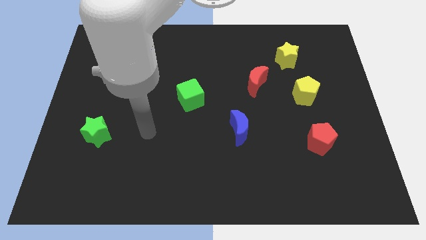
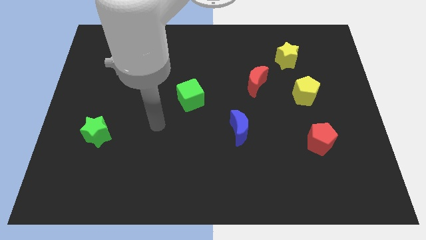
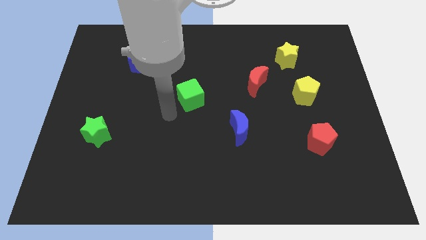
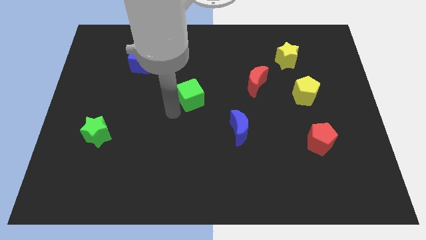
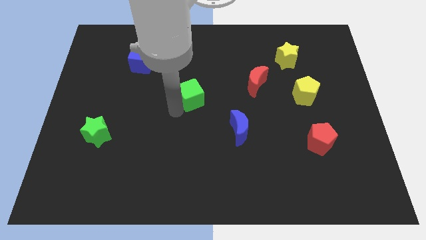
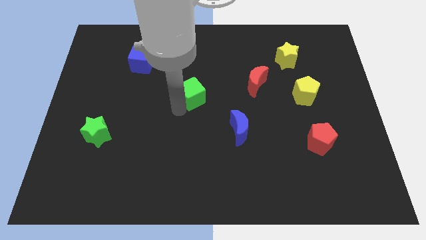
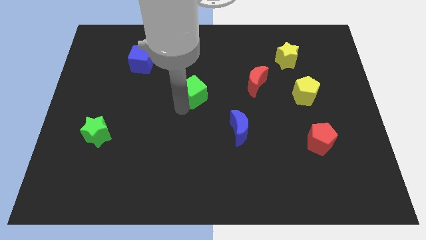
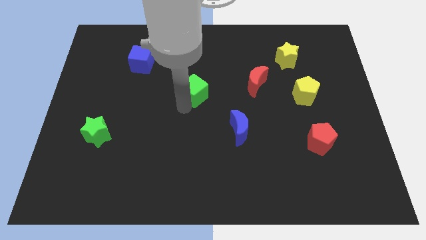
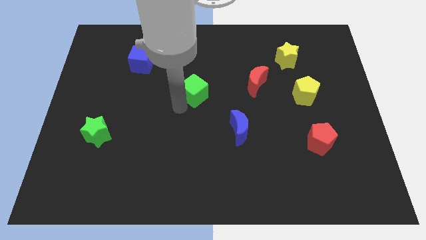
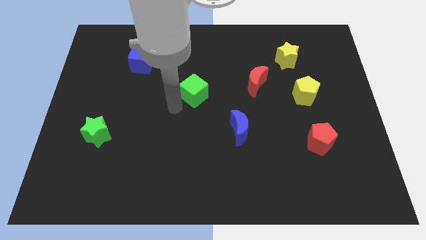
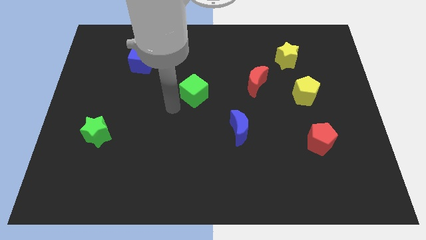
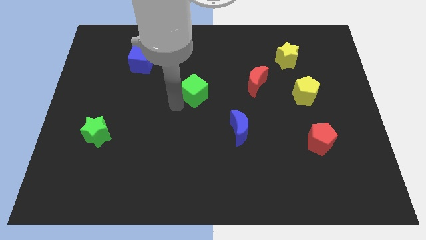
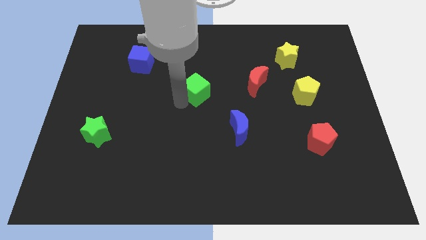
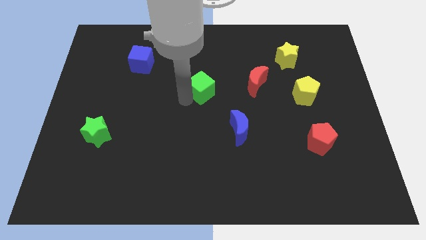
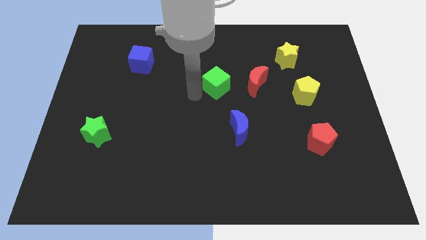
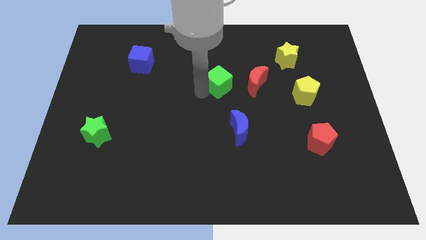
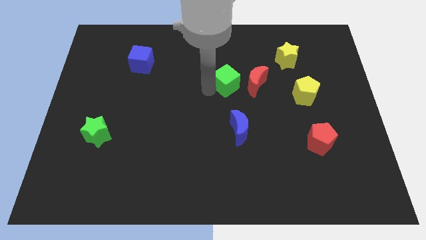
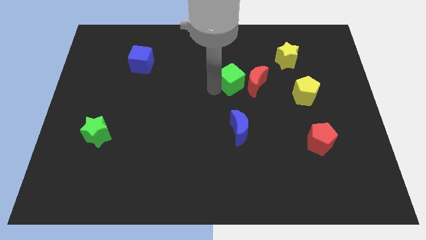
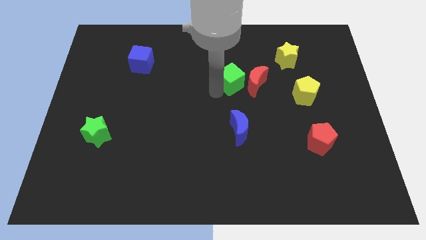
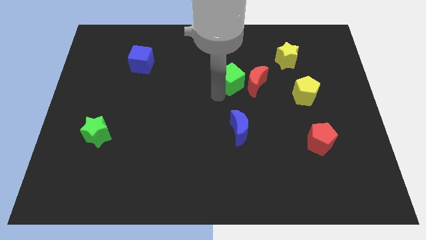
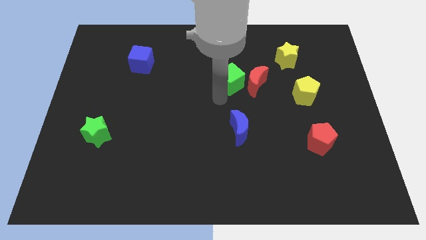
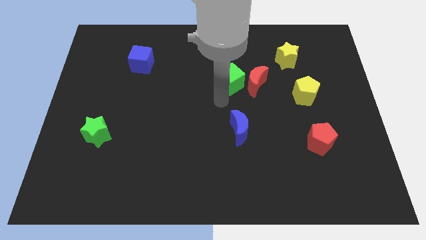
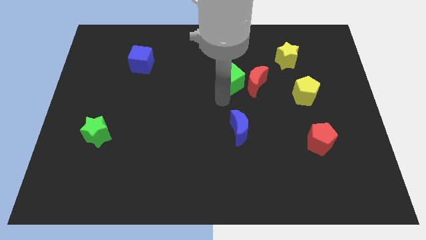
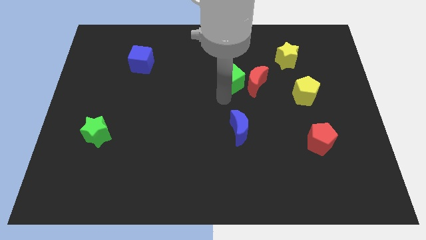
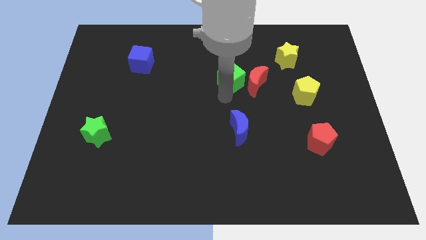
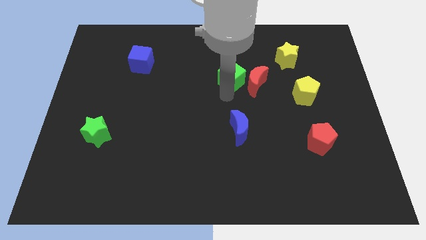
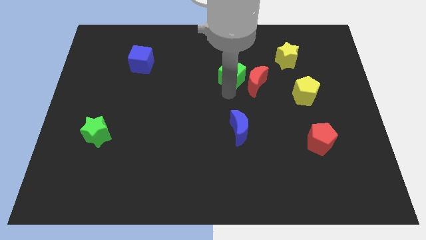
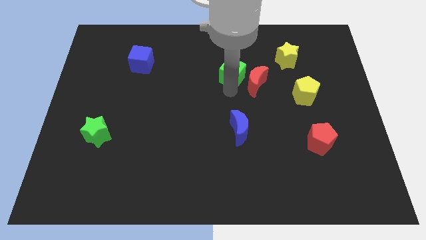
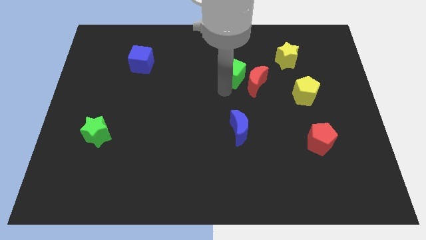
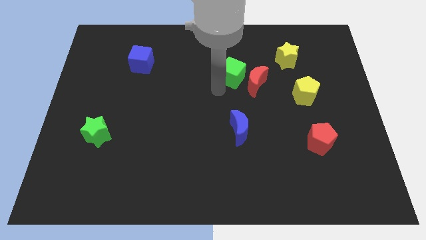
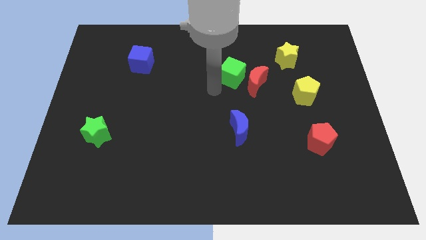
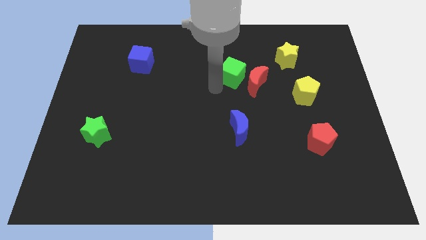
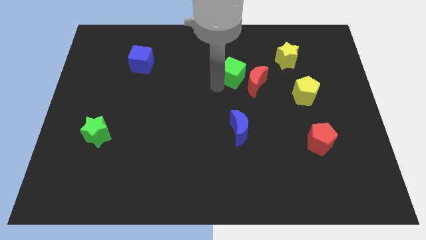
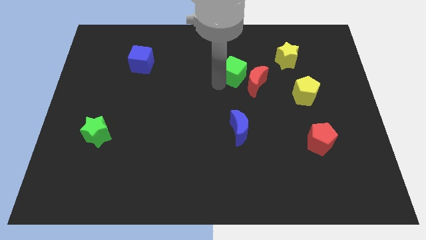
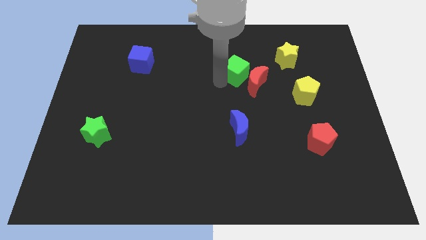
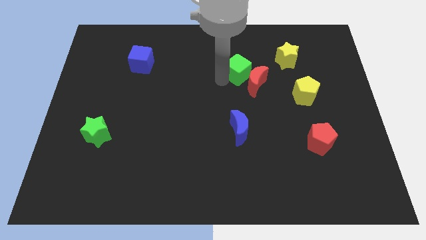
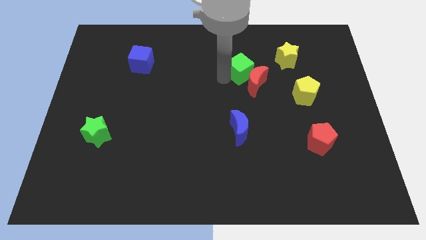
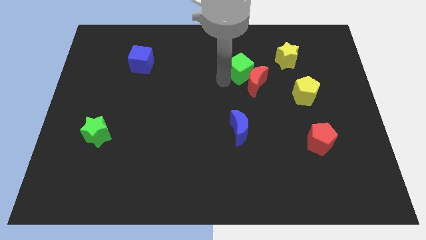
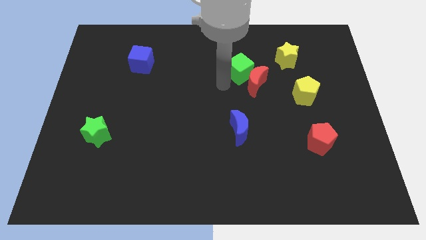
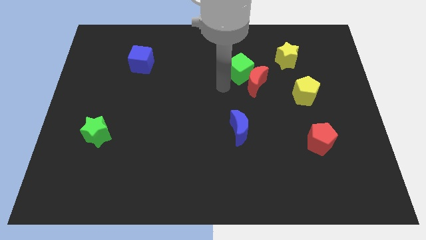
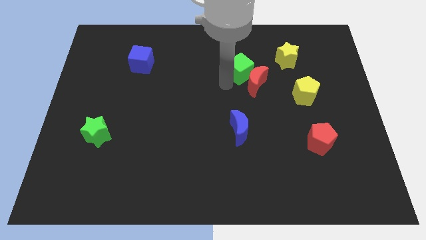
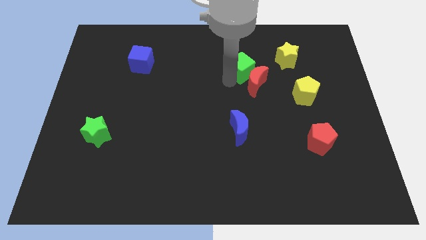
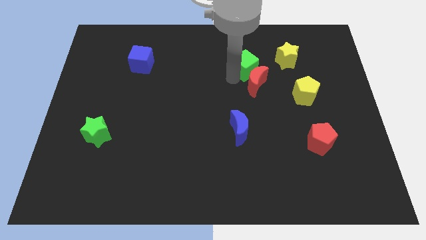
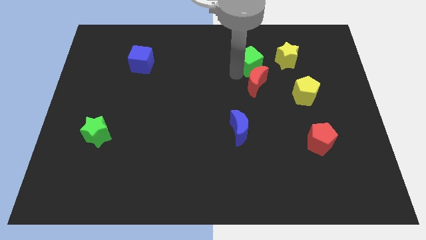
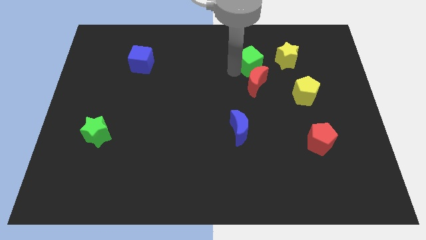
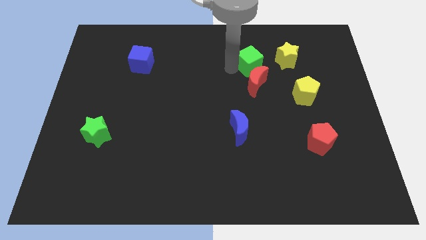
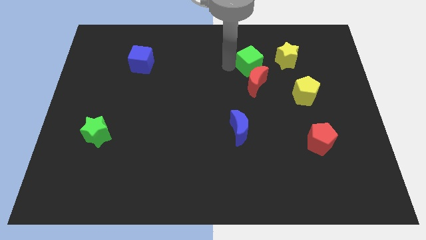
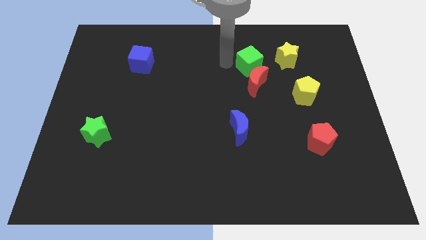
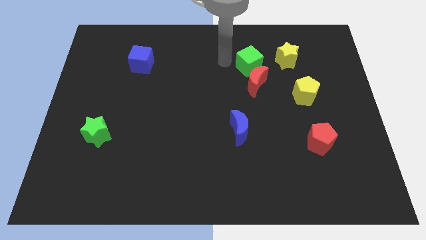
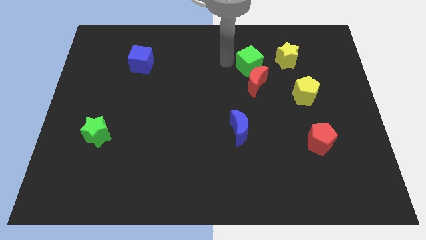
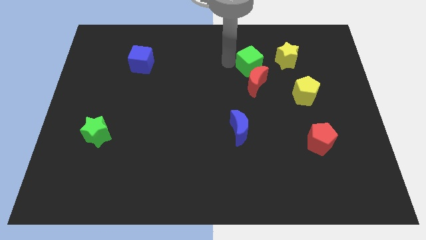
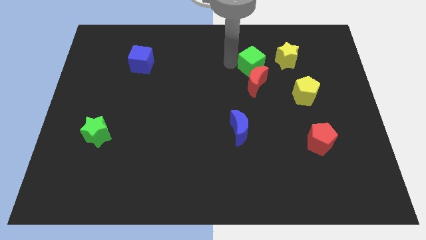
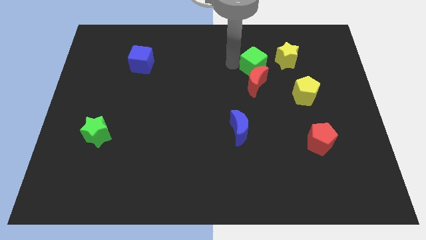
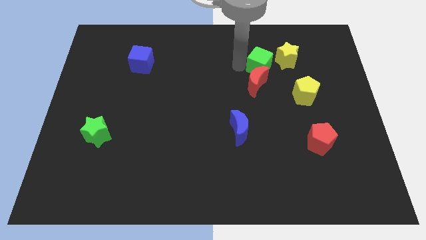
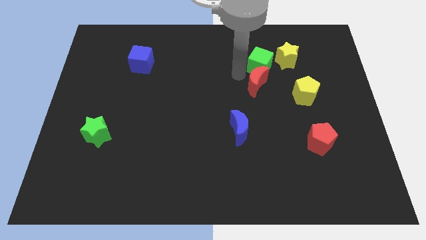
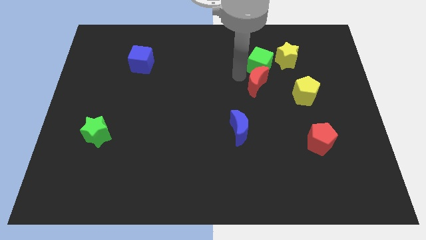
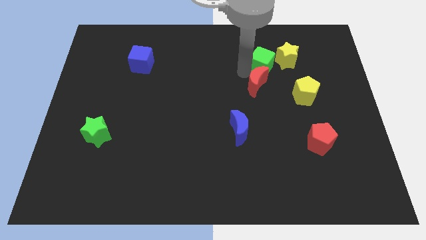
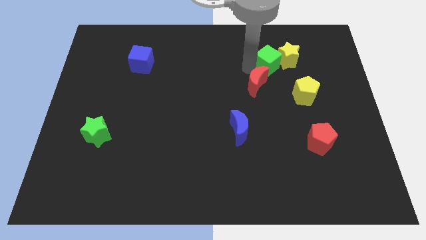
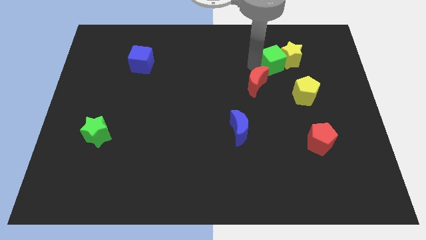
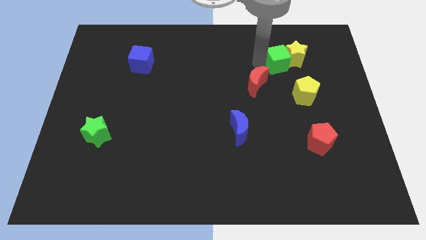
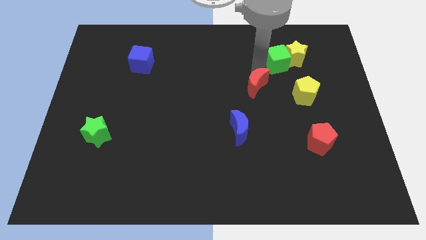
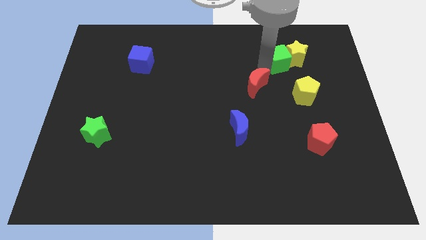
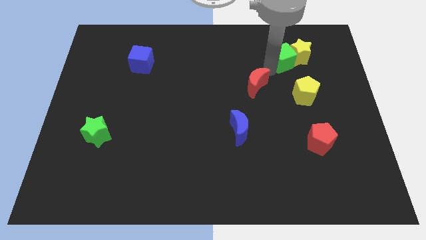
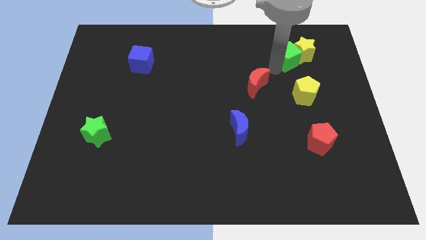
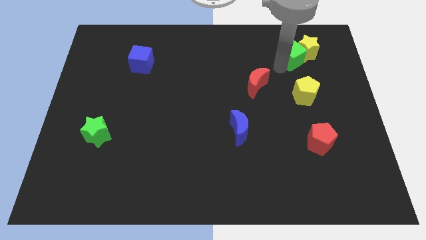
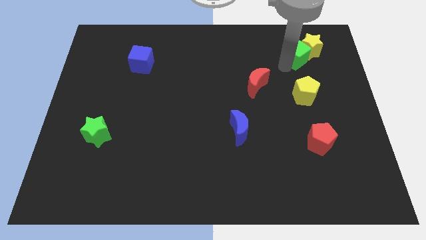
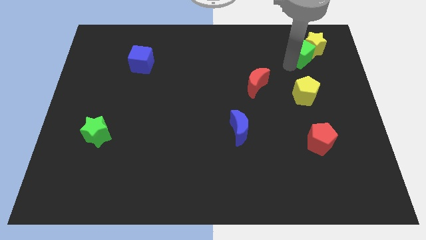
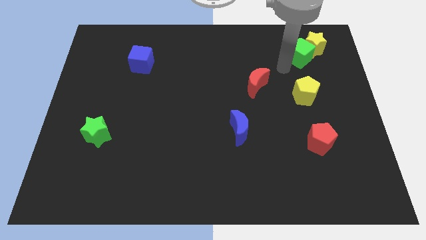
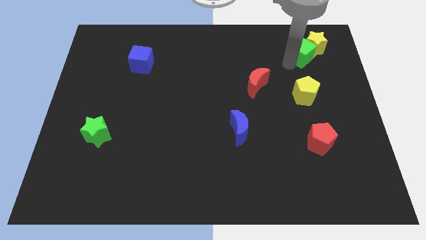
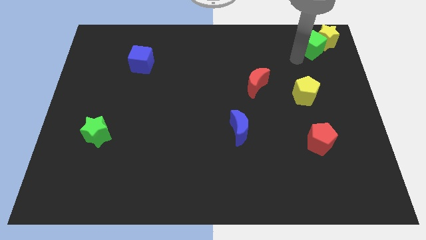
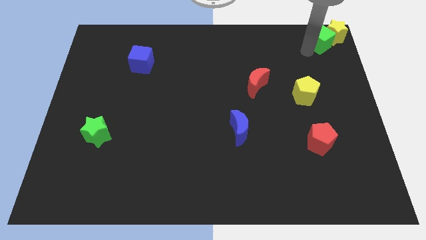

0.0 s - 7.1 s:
move the green cube to the top right

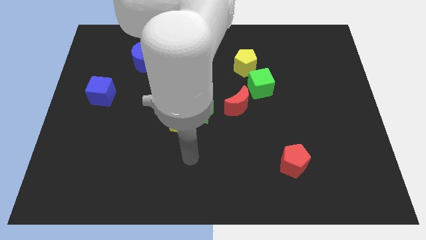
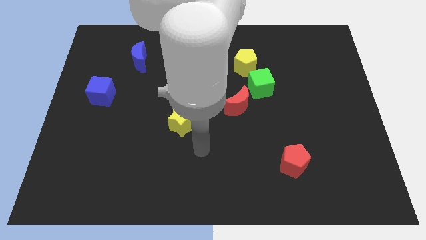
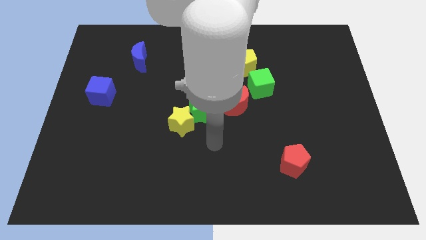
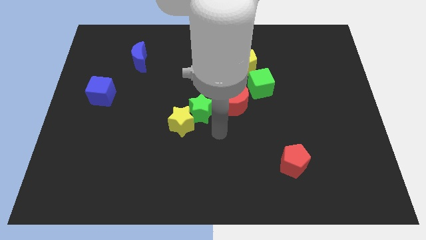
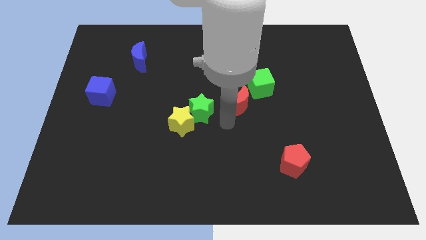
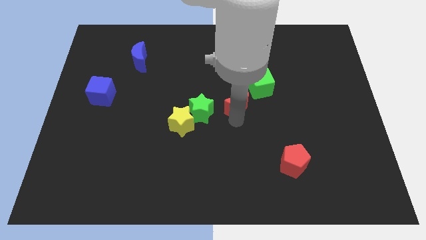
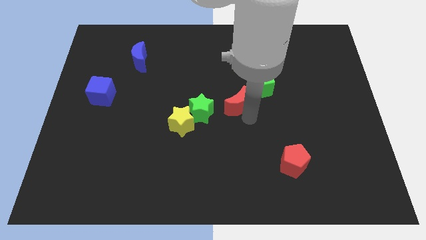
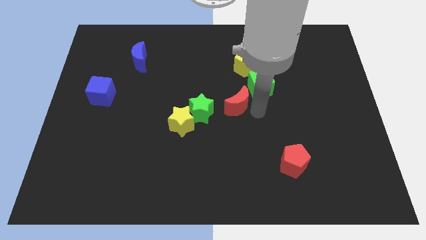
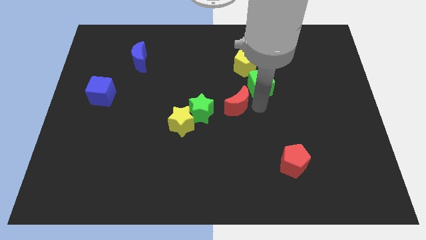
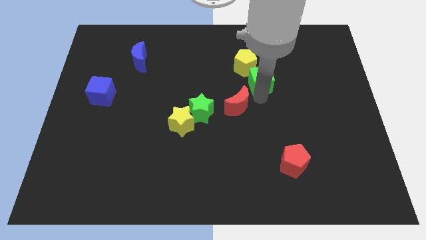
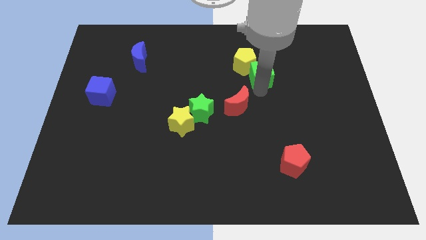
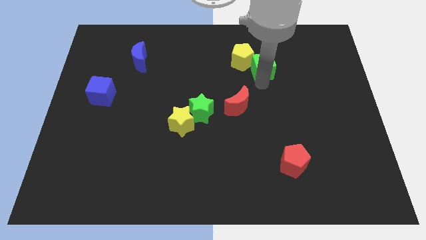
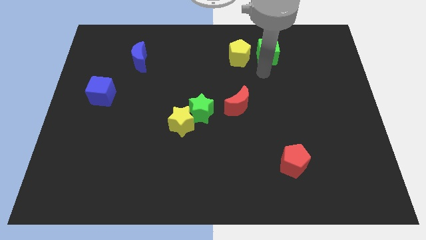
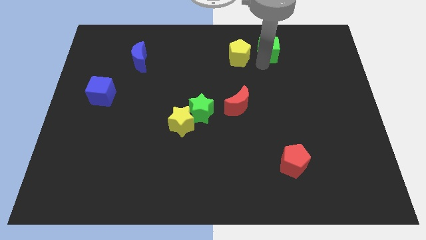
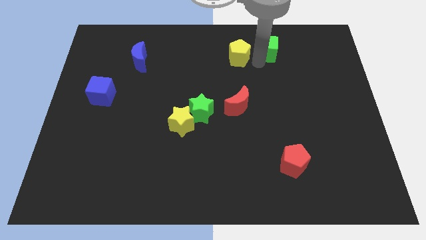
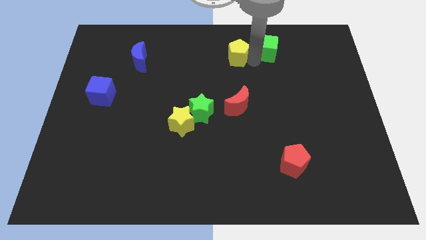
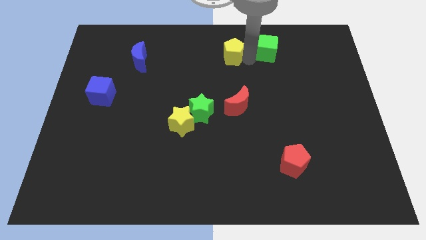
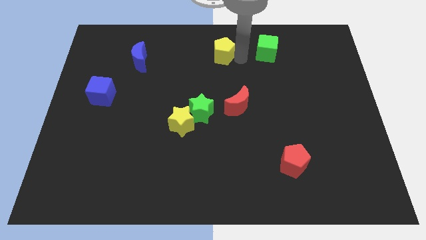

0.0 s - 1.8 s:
put the yellow pentagon to the top side
